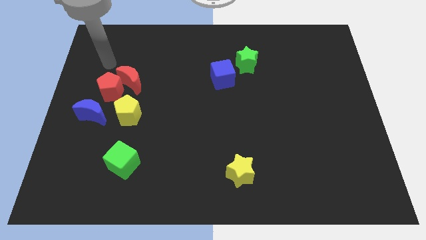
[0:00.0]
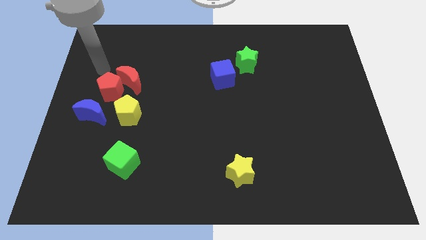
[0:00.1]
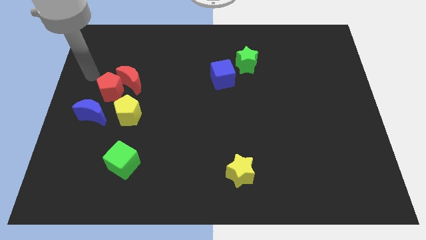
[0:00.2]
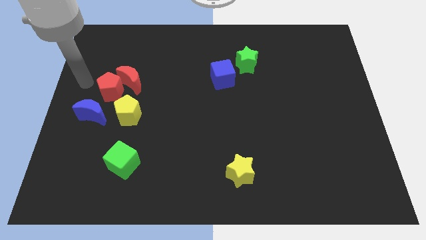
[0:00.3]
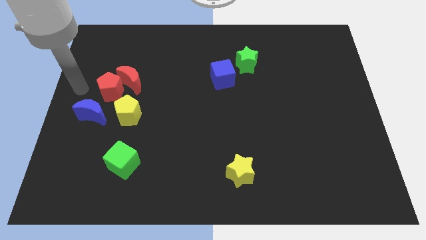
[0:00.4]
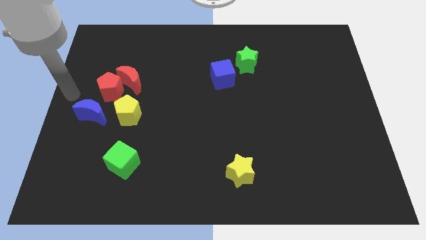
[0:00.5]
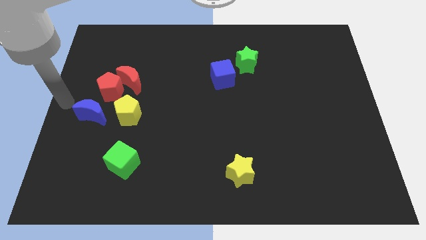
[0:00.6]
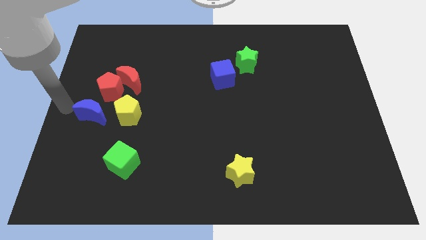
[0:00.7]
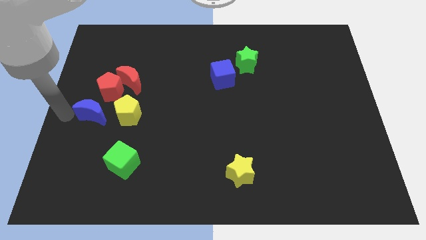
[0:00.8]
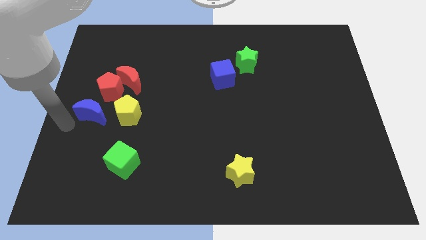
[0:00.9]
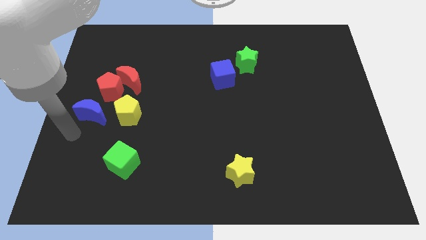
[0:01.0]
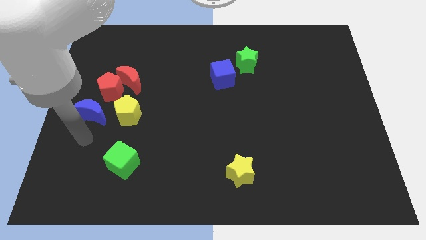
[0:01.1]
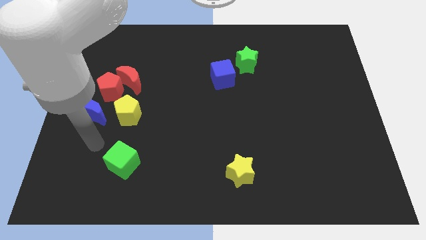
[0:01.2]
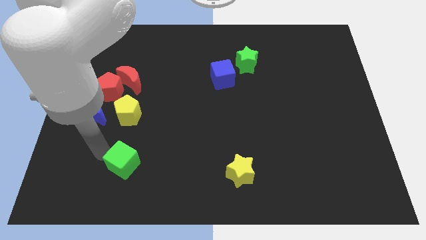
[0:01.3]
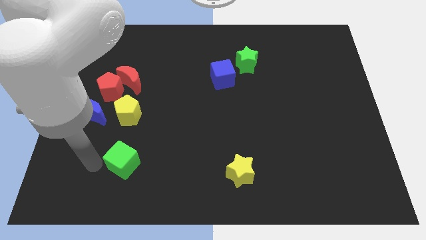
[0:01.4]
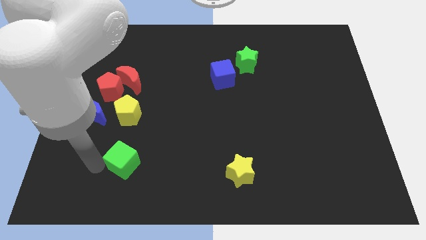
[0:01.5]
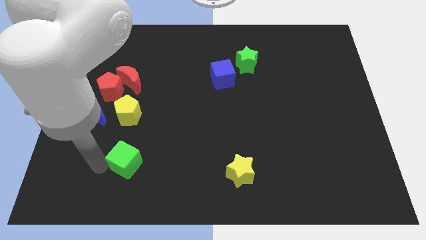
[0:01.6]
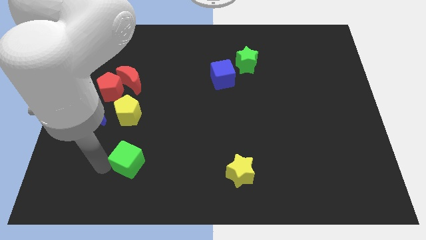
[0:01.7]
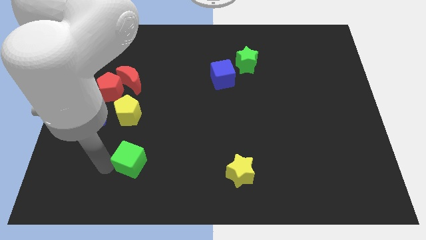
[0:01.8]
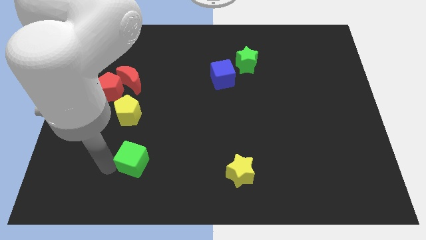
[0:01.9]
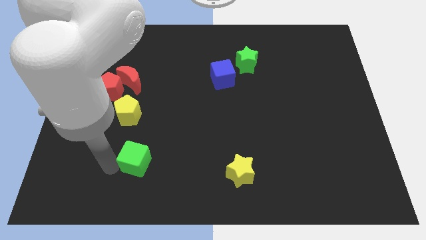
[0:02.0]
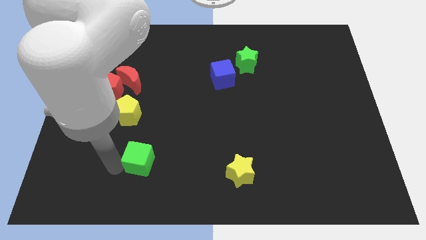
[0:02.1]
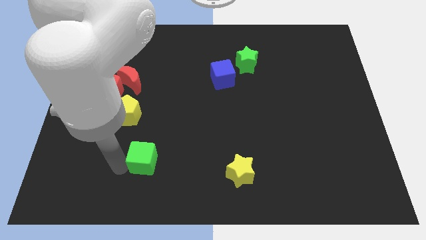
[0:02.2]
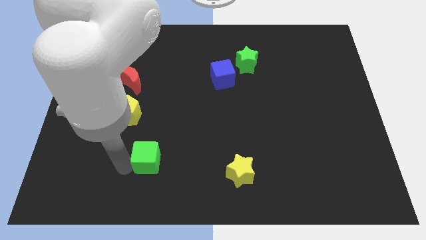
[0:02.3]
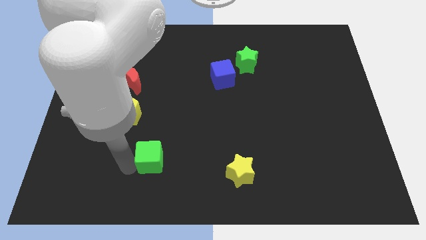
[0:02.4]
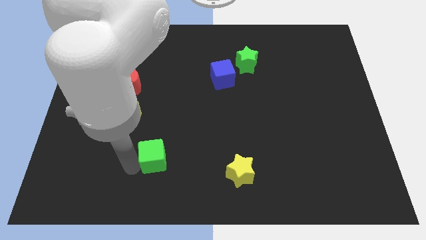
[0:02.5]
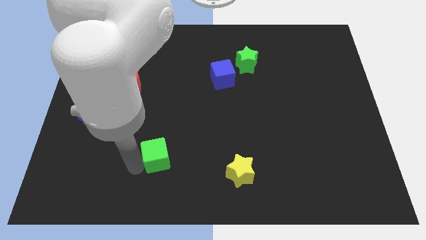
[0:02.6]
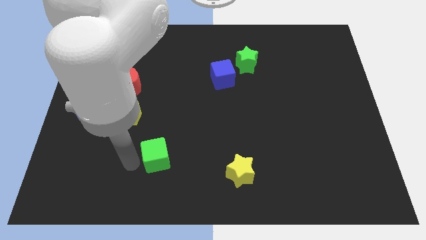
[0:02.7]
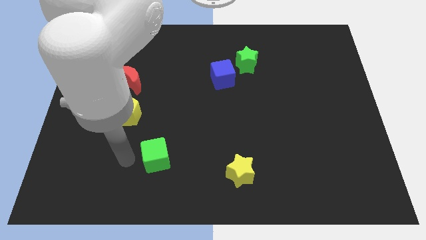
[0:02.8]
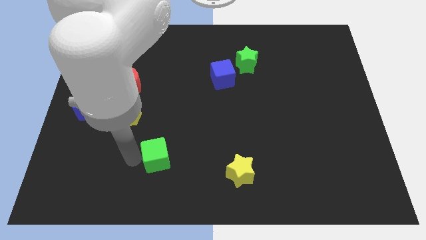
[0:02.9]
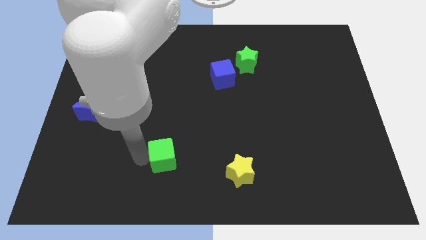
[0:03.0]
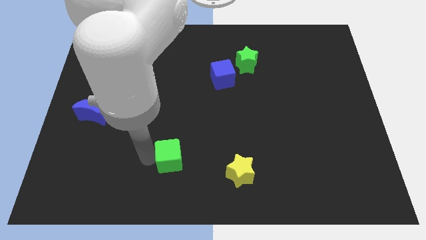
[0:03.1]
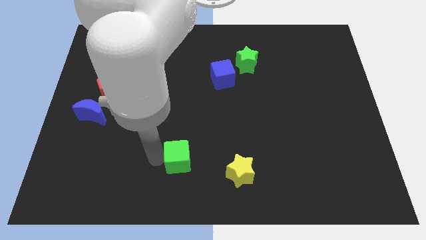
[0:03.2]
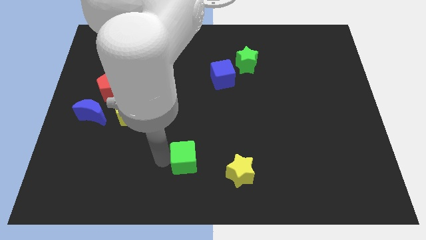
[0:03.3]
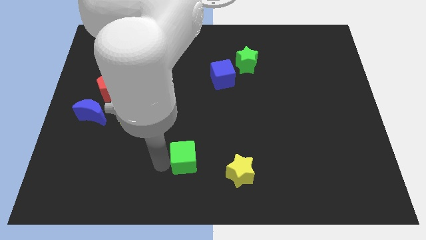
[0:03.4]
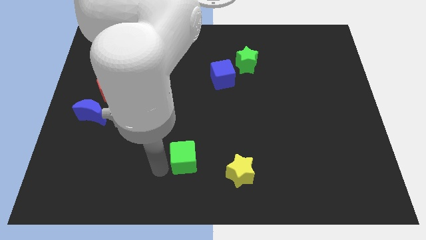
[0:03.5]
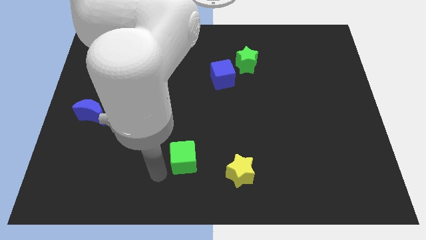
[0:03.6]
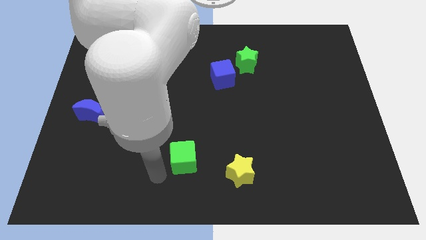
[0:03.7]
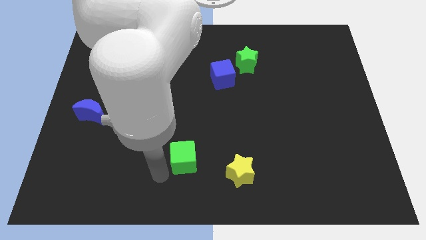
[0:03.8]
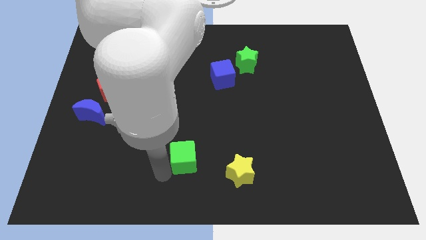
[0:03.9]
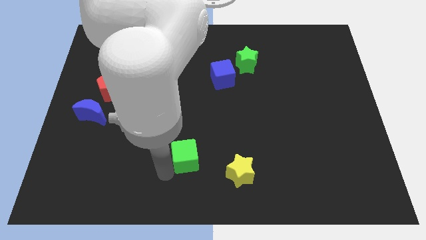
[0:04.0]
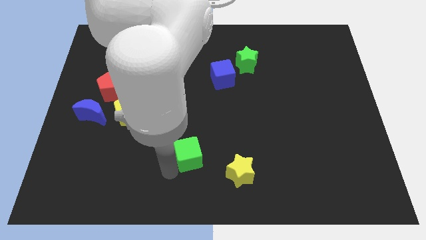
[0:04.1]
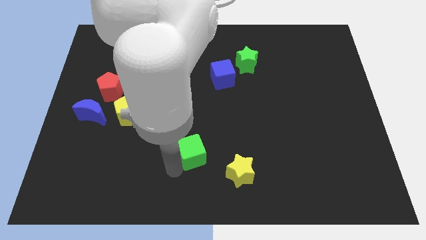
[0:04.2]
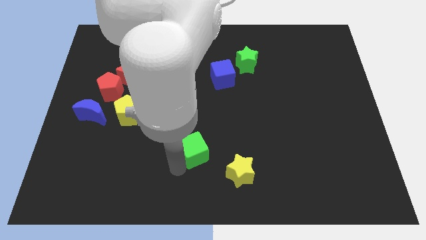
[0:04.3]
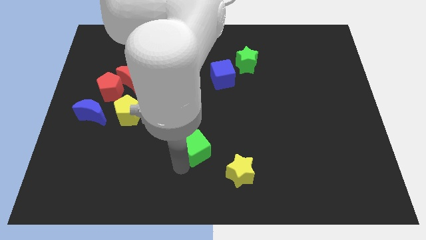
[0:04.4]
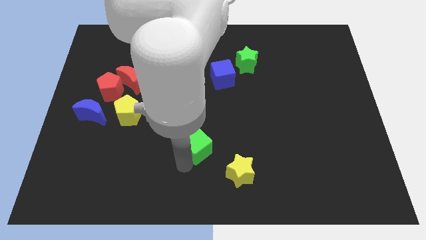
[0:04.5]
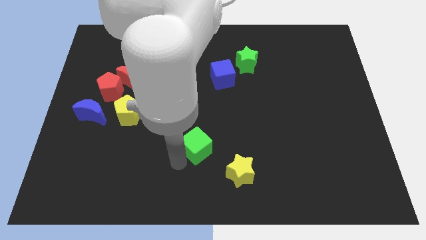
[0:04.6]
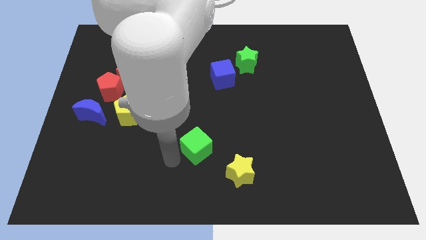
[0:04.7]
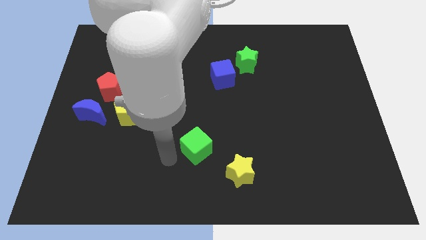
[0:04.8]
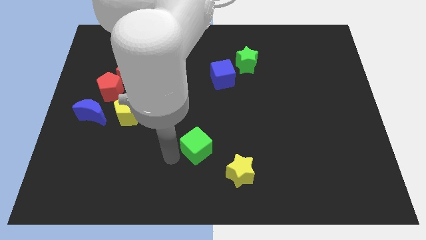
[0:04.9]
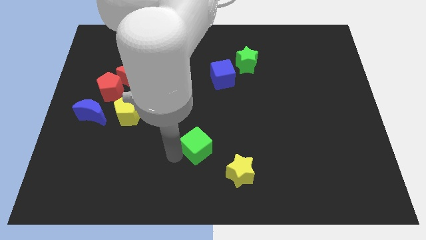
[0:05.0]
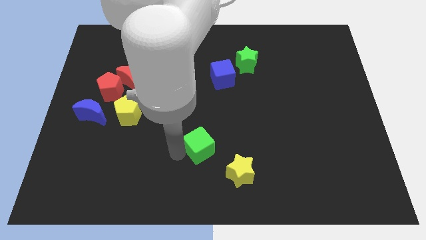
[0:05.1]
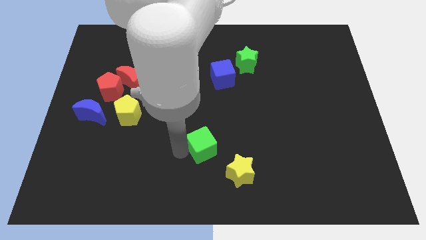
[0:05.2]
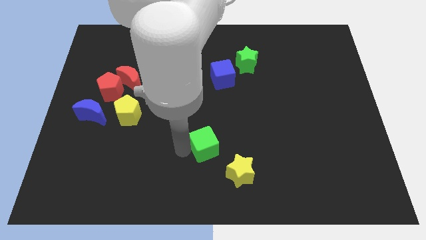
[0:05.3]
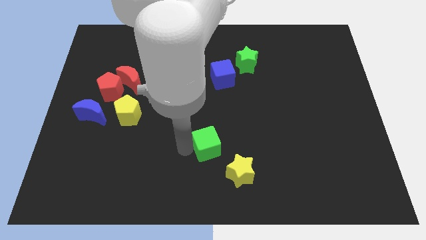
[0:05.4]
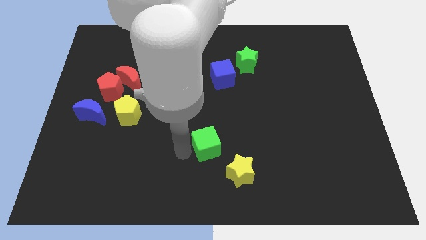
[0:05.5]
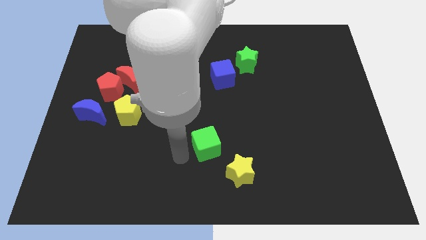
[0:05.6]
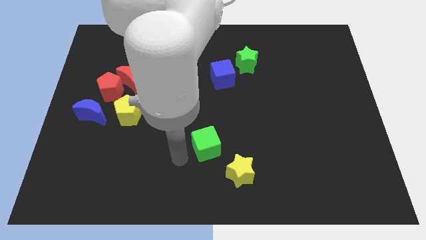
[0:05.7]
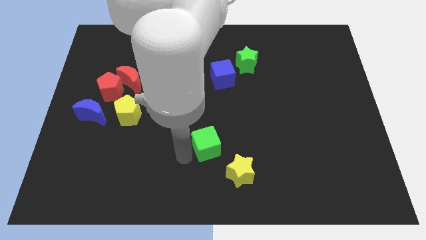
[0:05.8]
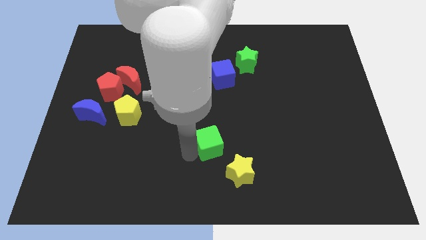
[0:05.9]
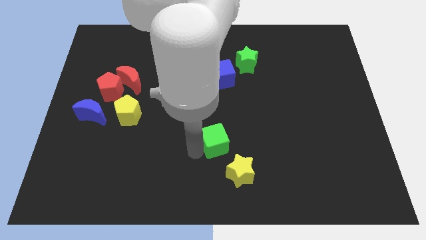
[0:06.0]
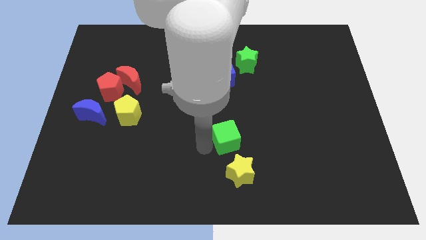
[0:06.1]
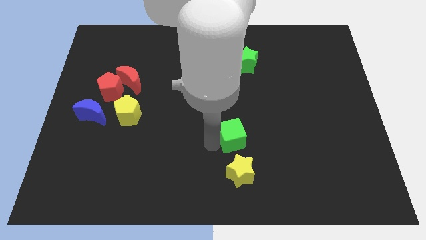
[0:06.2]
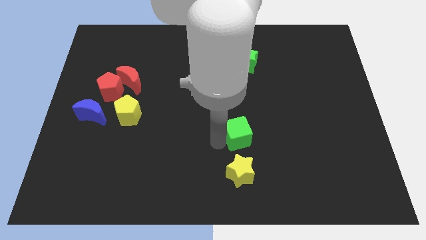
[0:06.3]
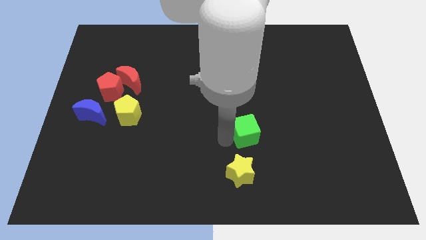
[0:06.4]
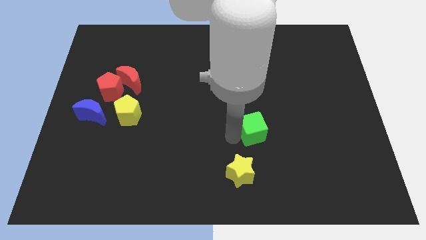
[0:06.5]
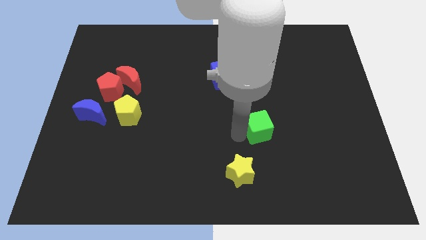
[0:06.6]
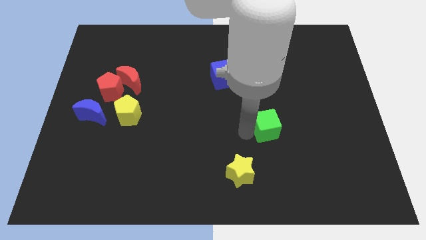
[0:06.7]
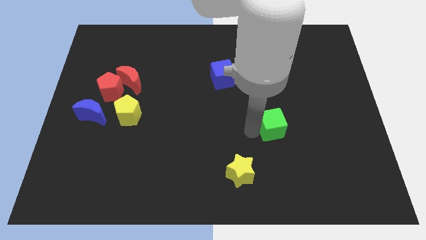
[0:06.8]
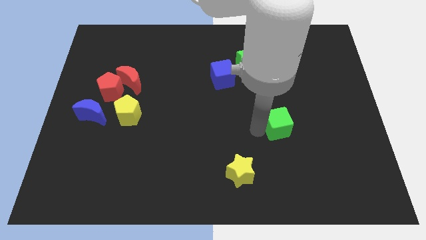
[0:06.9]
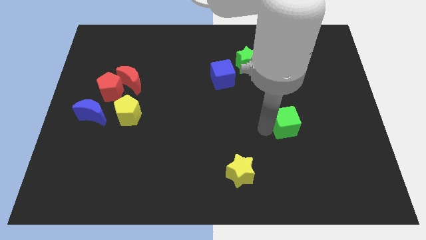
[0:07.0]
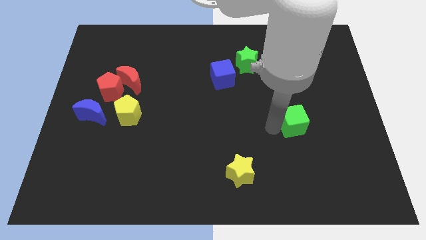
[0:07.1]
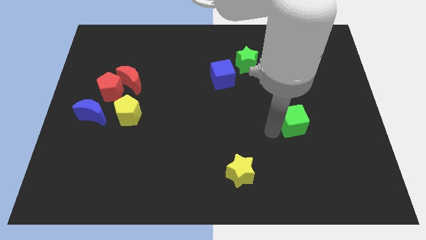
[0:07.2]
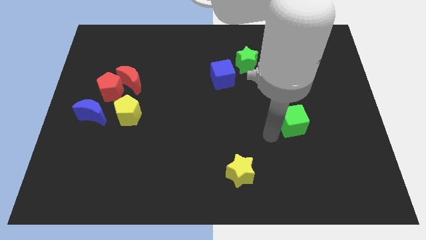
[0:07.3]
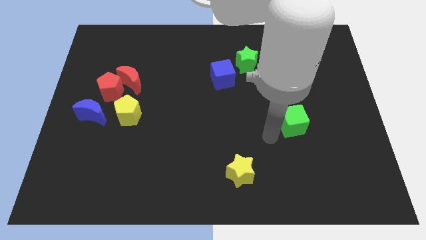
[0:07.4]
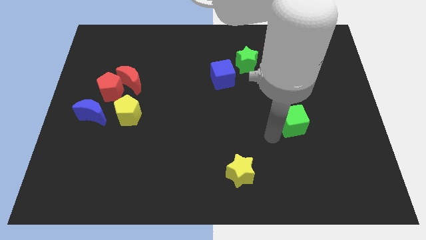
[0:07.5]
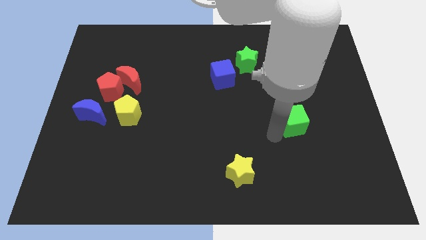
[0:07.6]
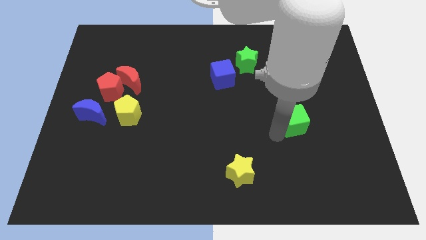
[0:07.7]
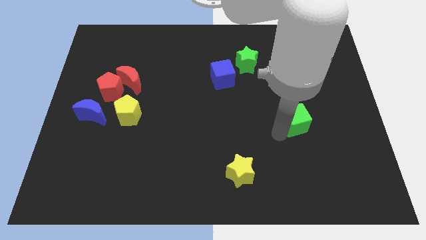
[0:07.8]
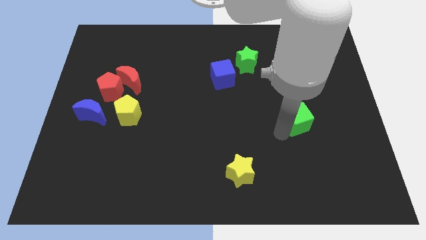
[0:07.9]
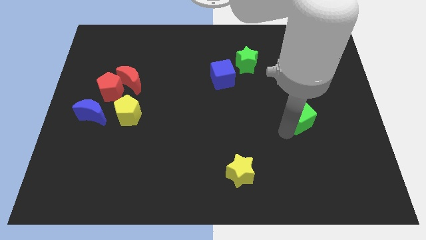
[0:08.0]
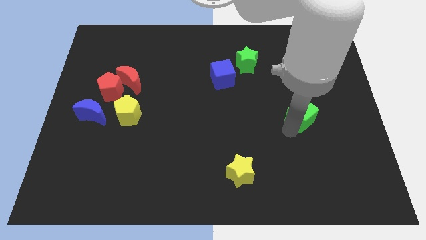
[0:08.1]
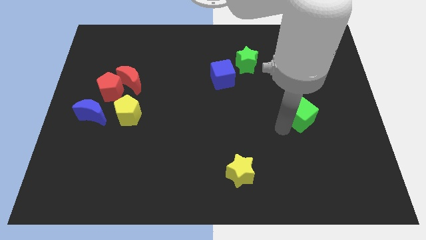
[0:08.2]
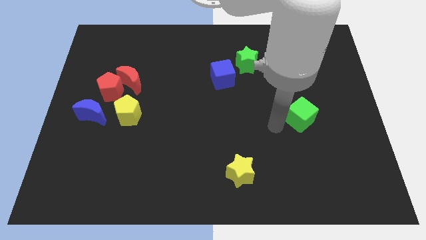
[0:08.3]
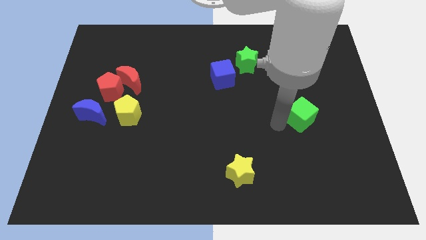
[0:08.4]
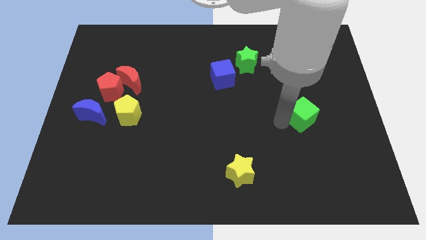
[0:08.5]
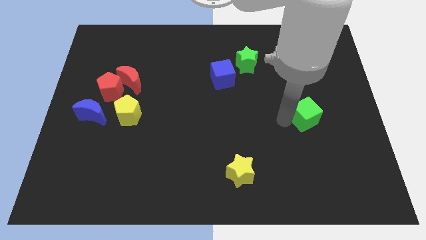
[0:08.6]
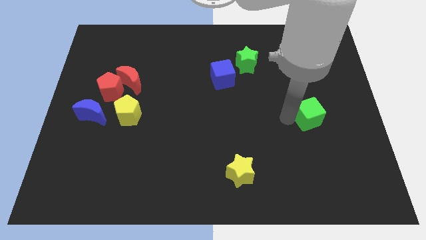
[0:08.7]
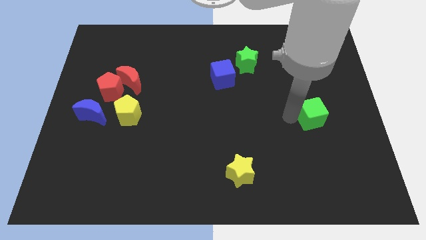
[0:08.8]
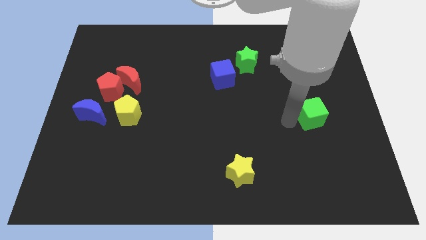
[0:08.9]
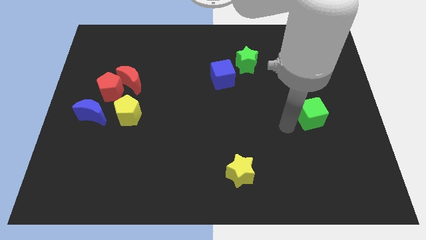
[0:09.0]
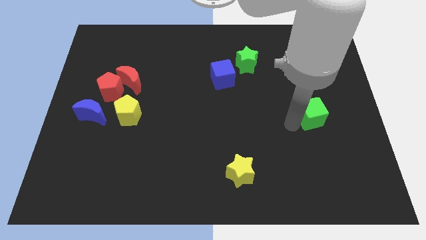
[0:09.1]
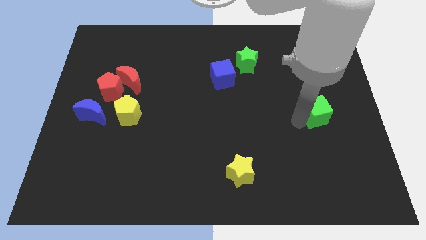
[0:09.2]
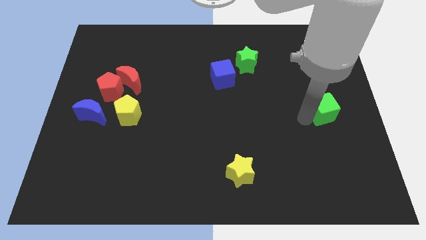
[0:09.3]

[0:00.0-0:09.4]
put the green cube to the center right
